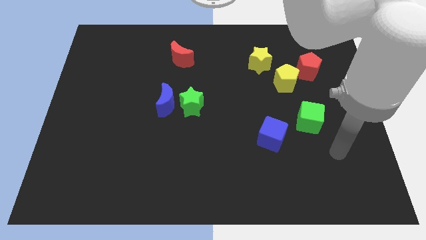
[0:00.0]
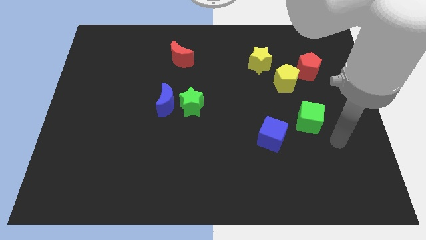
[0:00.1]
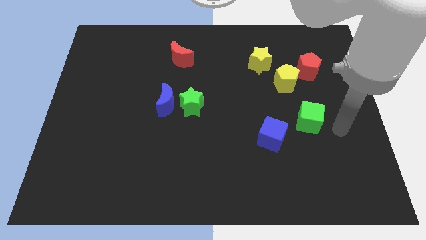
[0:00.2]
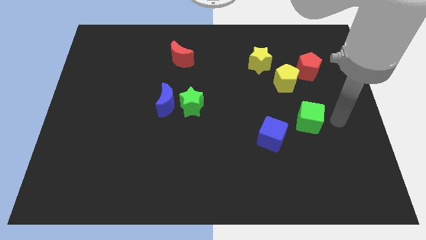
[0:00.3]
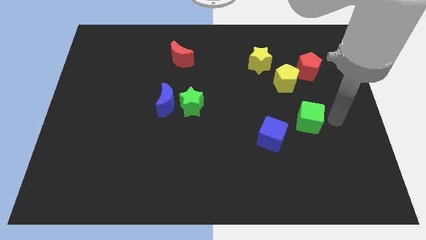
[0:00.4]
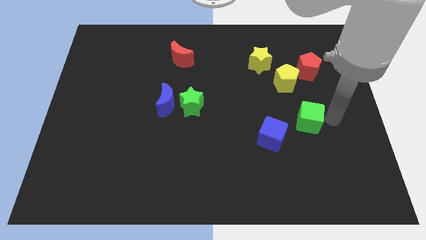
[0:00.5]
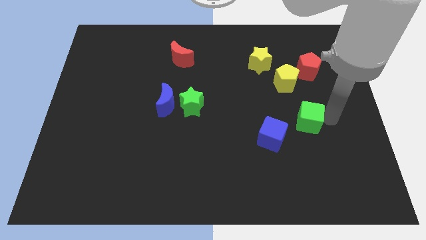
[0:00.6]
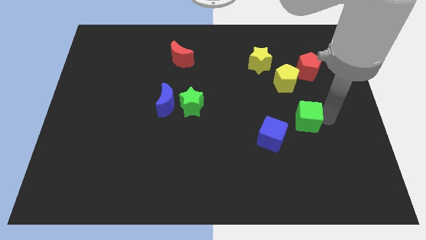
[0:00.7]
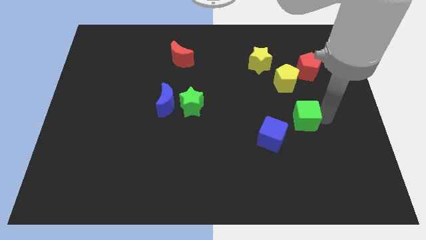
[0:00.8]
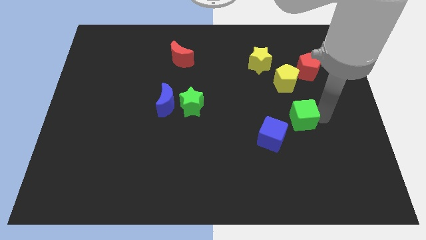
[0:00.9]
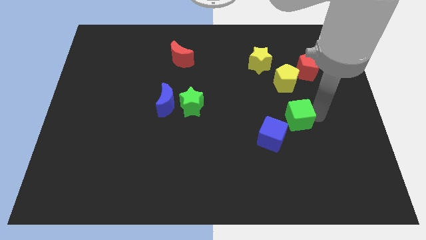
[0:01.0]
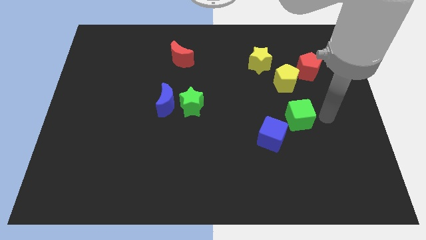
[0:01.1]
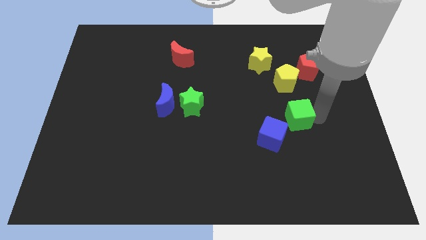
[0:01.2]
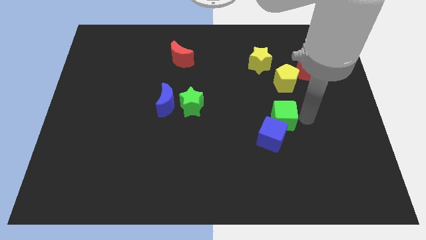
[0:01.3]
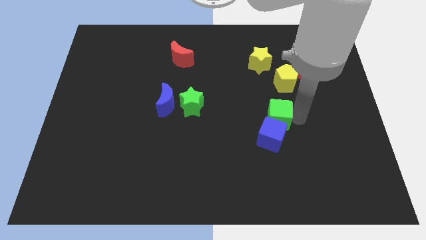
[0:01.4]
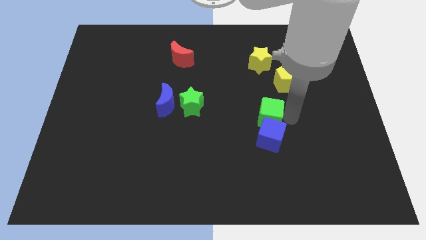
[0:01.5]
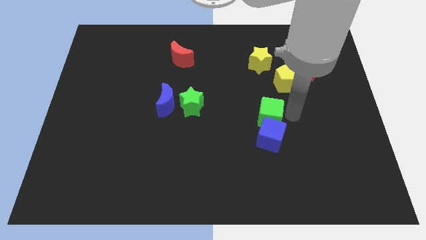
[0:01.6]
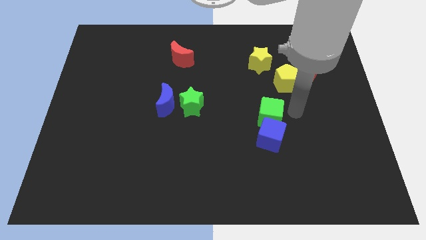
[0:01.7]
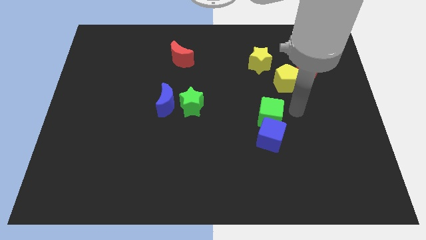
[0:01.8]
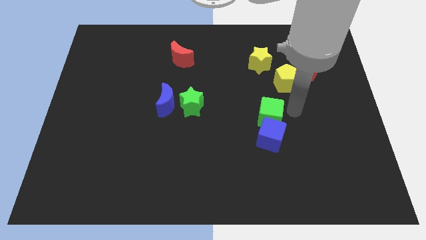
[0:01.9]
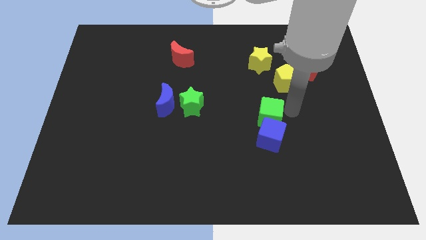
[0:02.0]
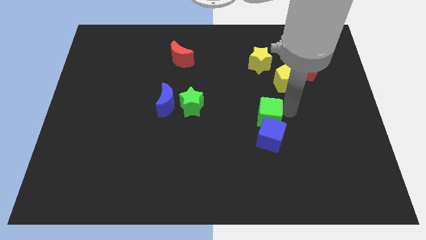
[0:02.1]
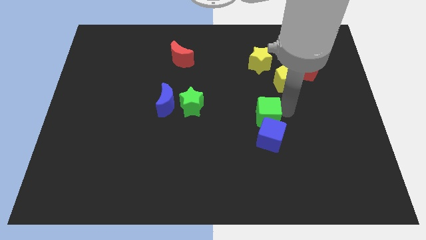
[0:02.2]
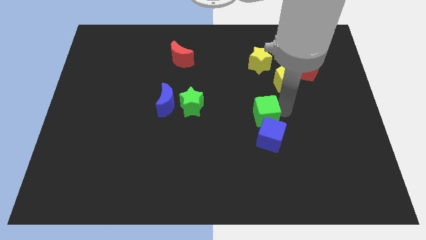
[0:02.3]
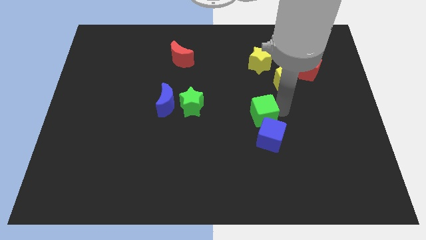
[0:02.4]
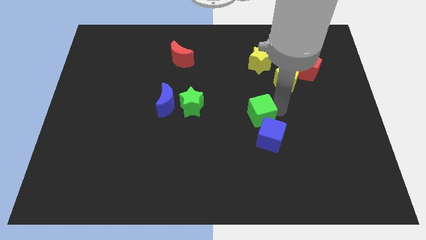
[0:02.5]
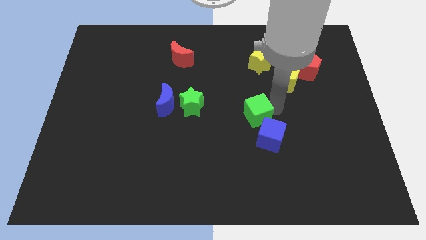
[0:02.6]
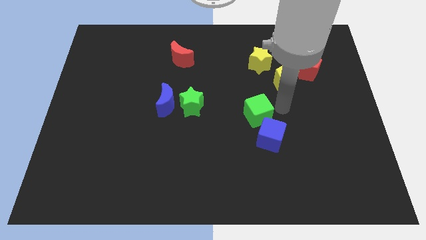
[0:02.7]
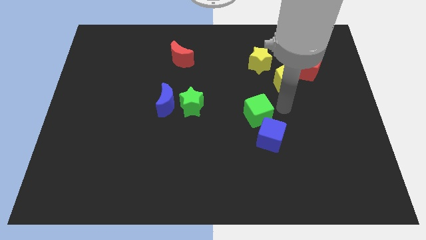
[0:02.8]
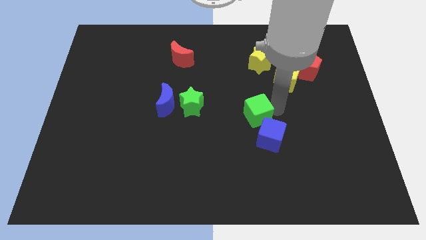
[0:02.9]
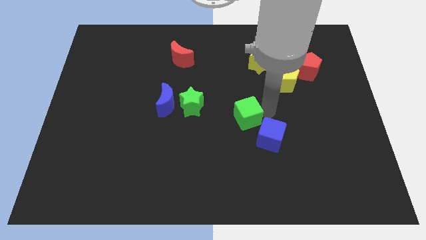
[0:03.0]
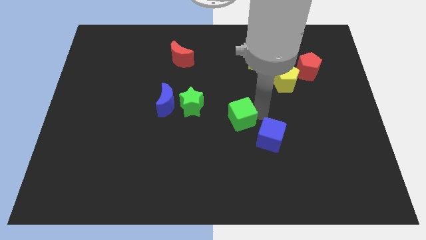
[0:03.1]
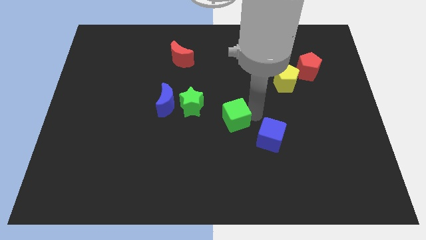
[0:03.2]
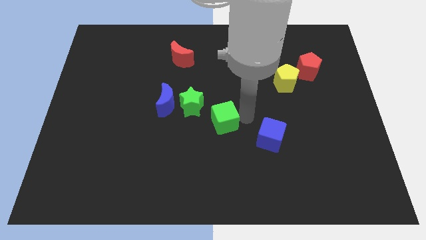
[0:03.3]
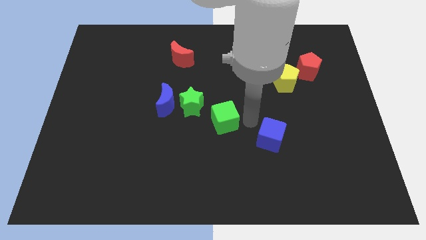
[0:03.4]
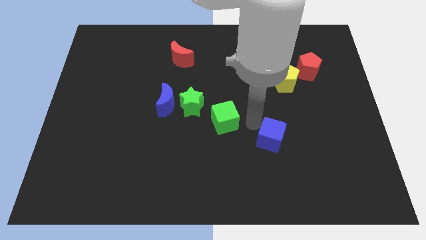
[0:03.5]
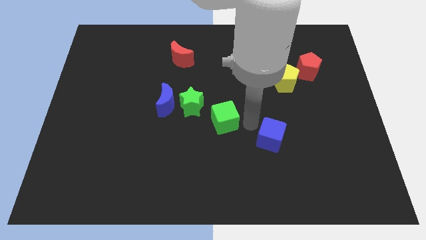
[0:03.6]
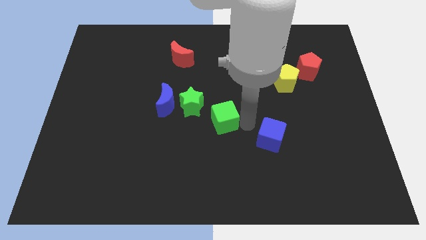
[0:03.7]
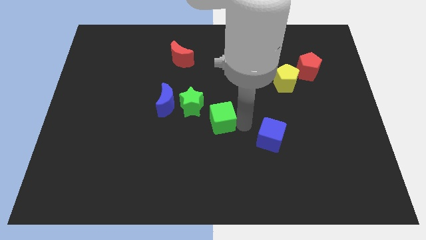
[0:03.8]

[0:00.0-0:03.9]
move the green cube to the left

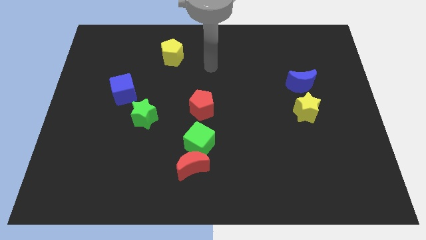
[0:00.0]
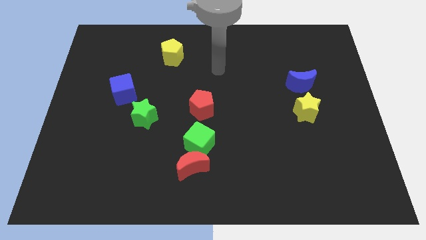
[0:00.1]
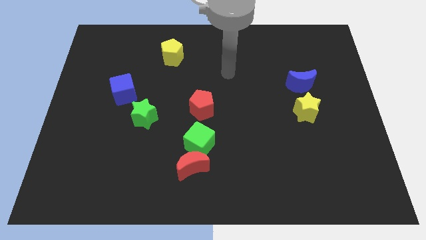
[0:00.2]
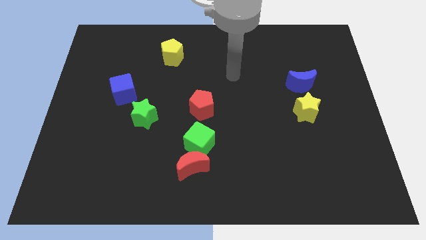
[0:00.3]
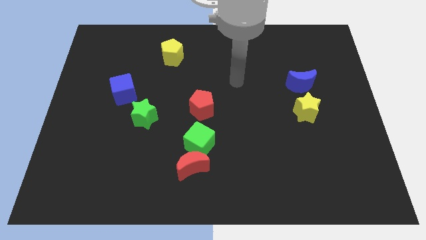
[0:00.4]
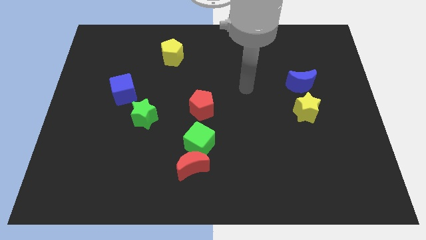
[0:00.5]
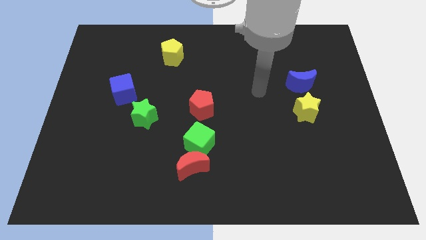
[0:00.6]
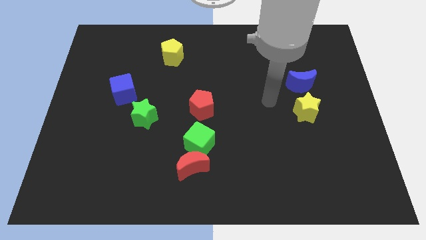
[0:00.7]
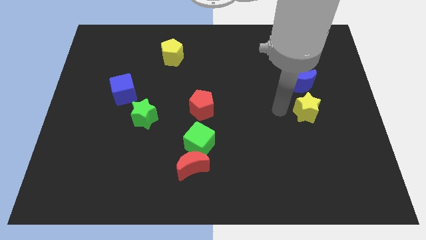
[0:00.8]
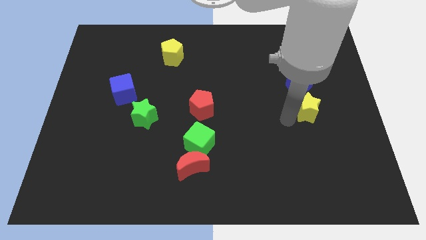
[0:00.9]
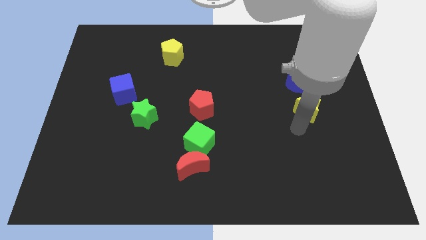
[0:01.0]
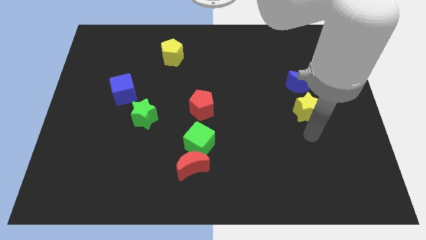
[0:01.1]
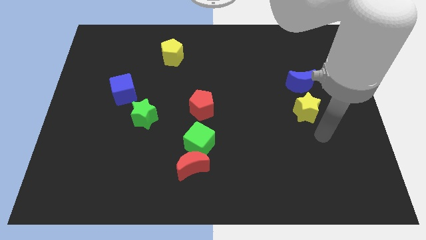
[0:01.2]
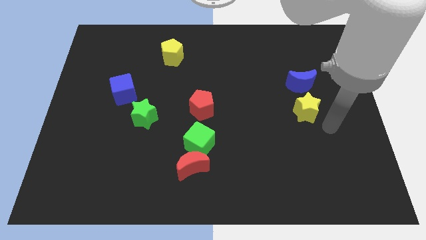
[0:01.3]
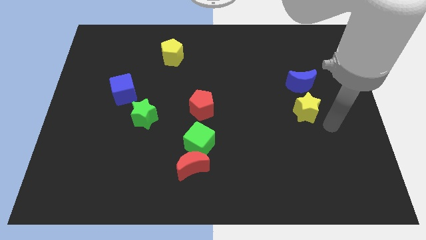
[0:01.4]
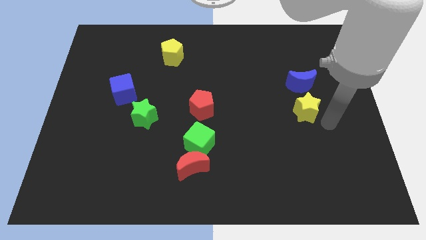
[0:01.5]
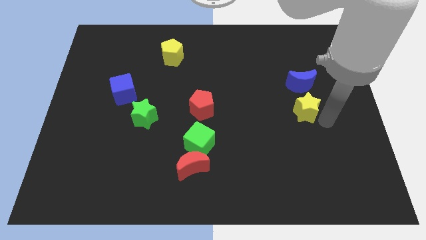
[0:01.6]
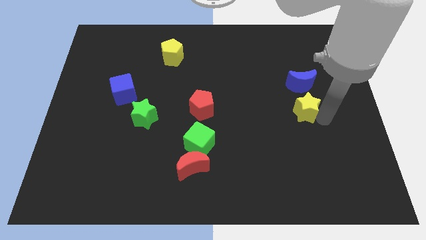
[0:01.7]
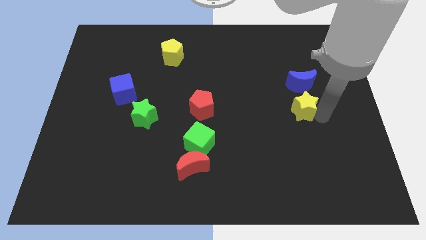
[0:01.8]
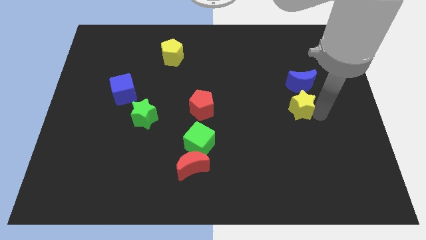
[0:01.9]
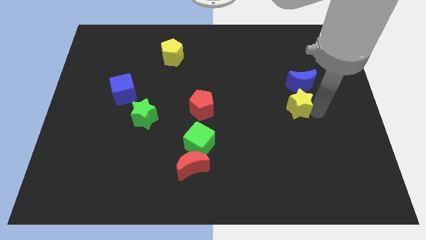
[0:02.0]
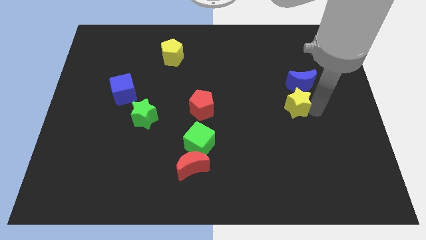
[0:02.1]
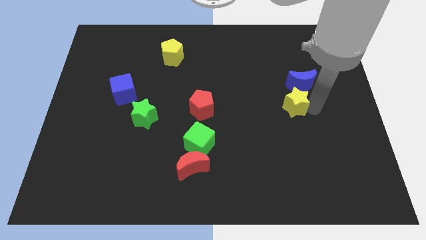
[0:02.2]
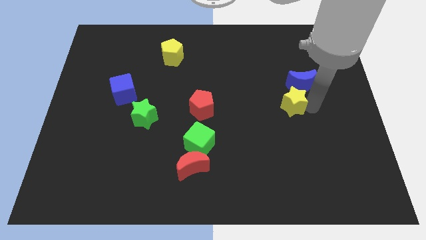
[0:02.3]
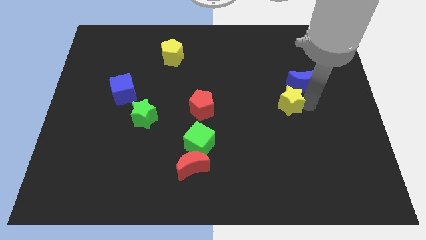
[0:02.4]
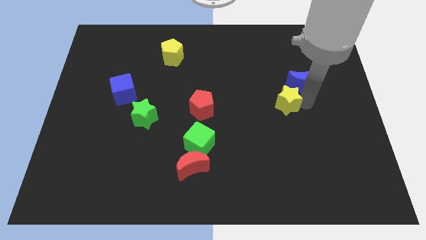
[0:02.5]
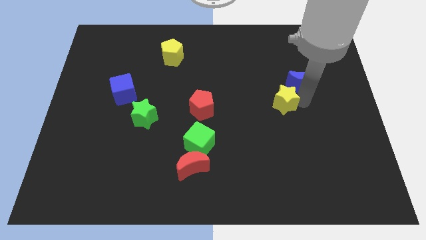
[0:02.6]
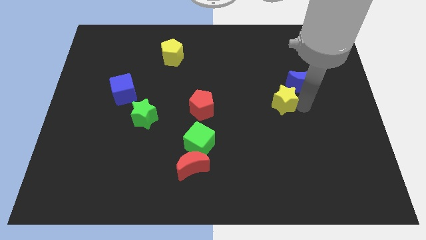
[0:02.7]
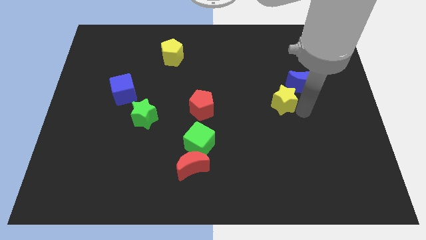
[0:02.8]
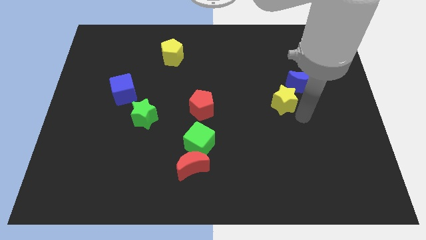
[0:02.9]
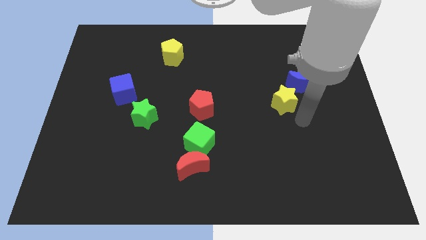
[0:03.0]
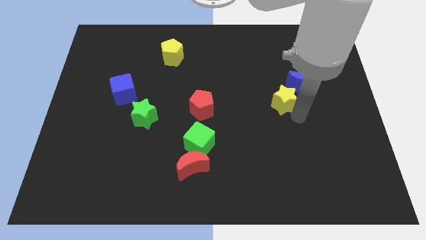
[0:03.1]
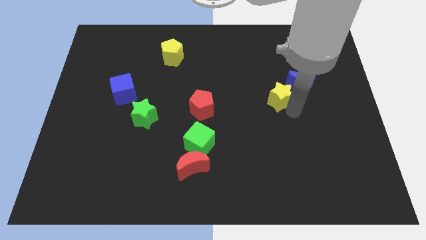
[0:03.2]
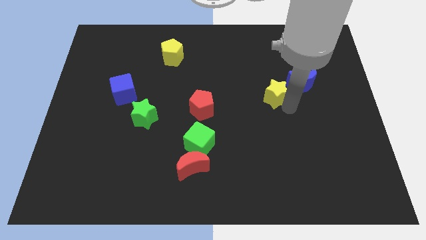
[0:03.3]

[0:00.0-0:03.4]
slightly move the yellow star diagonally up and left

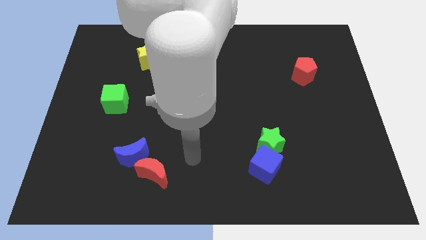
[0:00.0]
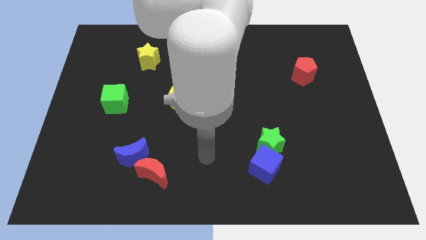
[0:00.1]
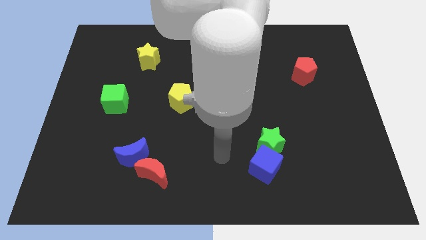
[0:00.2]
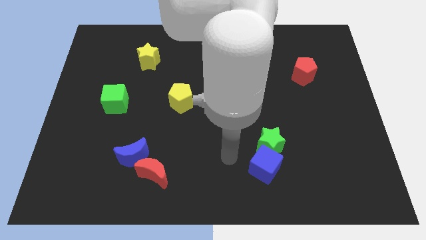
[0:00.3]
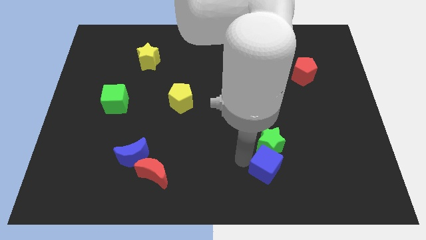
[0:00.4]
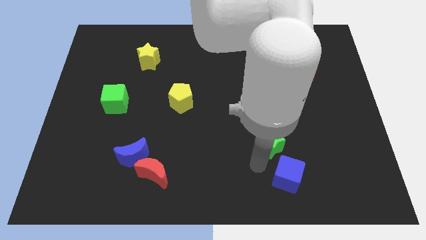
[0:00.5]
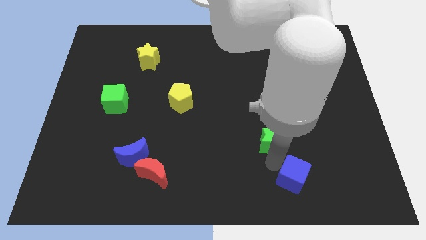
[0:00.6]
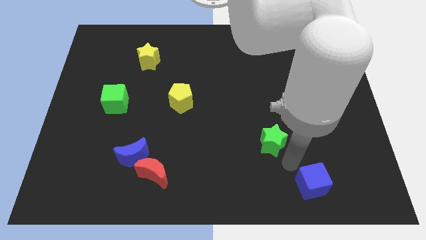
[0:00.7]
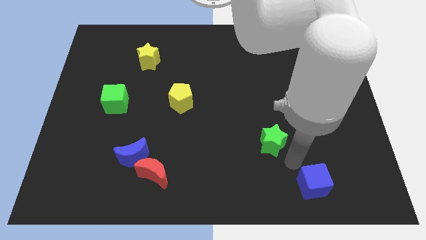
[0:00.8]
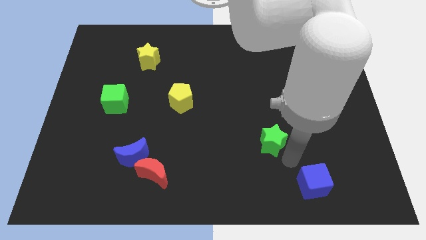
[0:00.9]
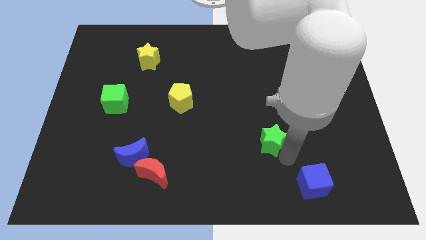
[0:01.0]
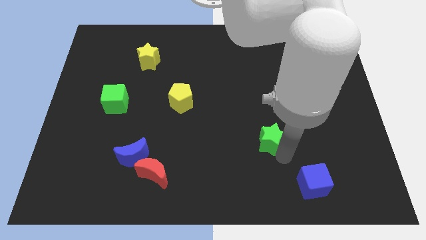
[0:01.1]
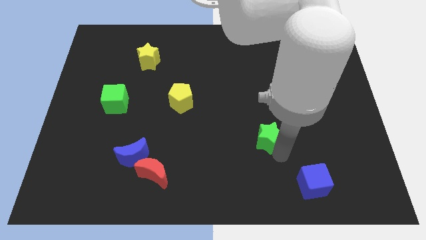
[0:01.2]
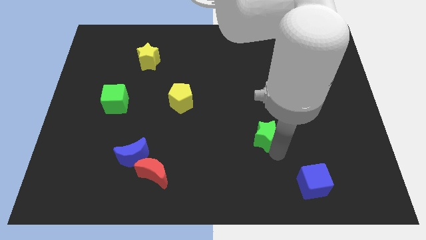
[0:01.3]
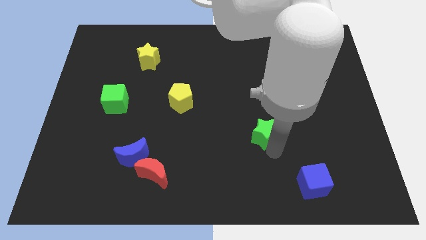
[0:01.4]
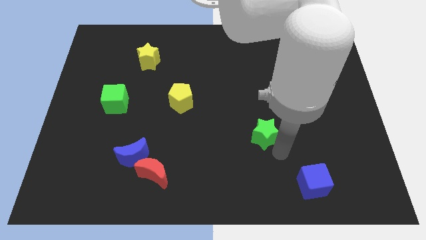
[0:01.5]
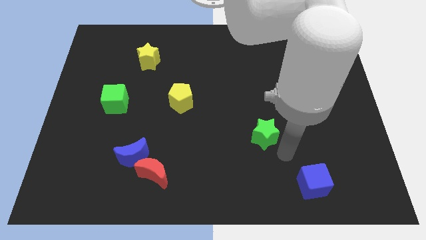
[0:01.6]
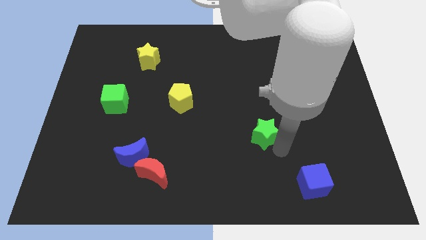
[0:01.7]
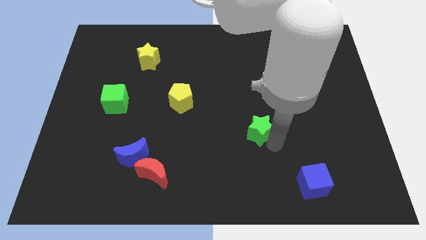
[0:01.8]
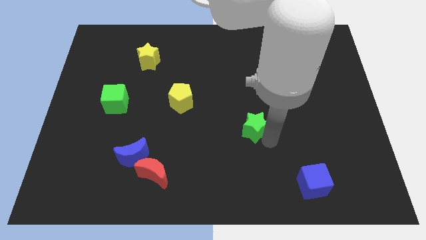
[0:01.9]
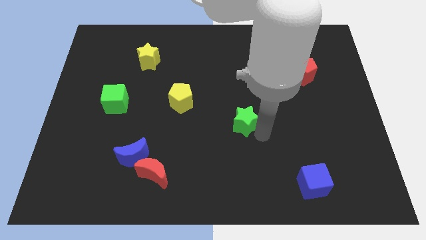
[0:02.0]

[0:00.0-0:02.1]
slide the green star upwards and to the left a little
